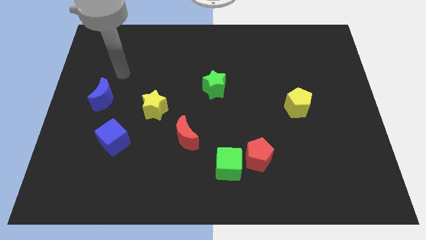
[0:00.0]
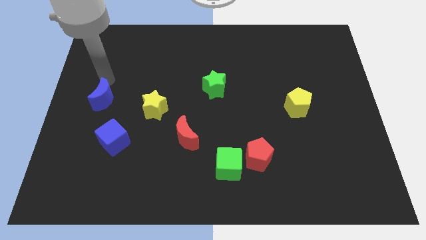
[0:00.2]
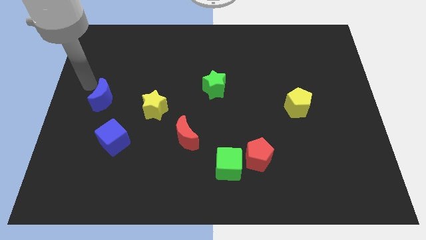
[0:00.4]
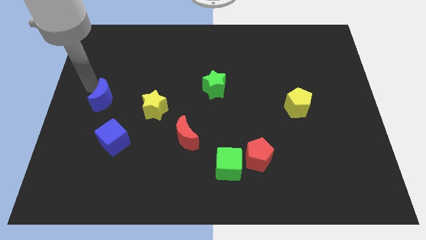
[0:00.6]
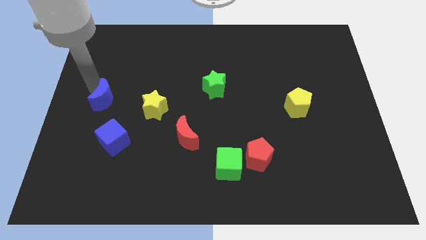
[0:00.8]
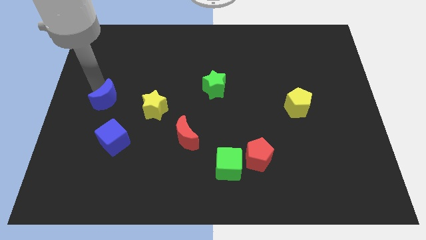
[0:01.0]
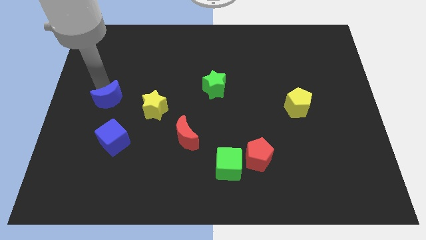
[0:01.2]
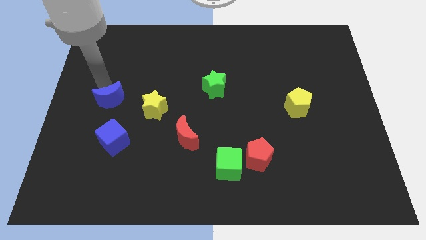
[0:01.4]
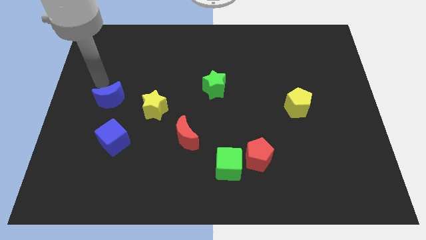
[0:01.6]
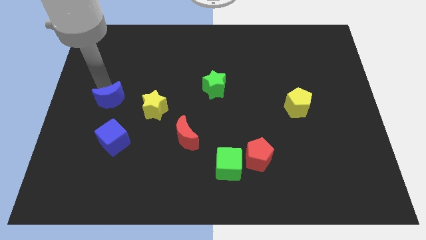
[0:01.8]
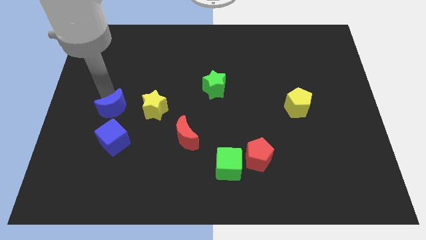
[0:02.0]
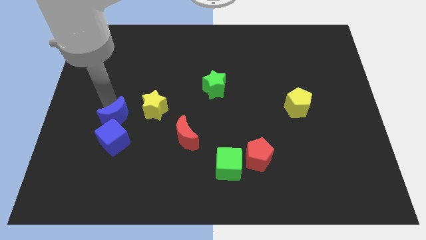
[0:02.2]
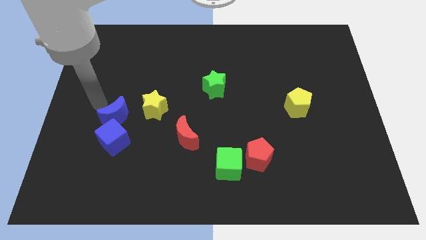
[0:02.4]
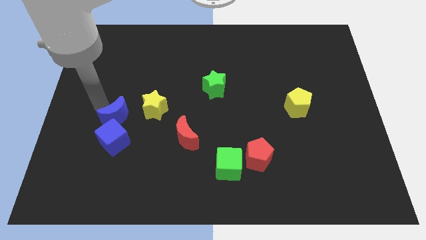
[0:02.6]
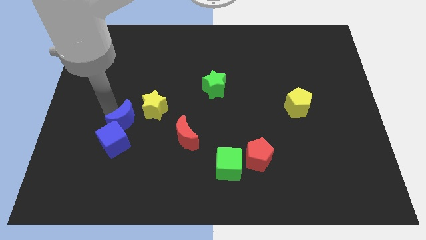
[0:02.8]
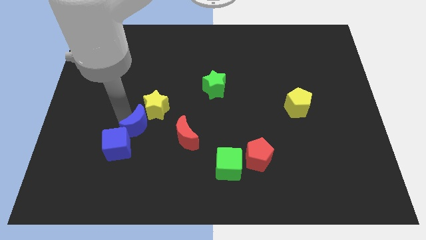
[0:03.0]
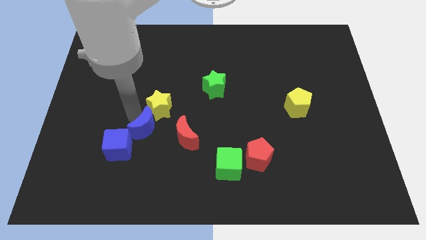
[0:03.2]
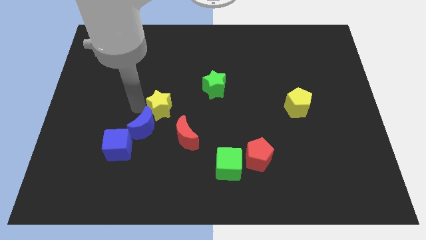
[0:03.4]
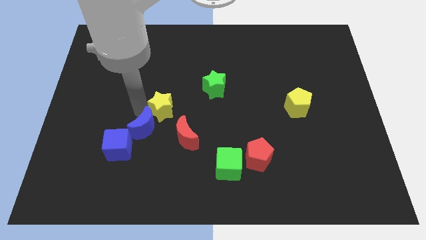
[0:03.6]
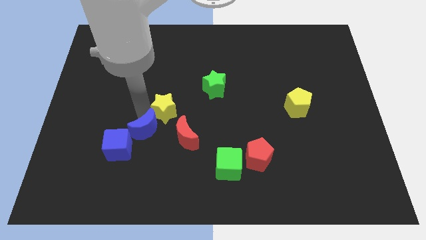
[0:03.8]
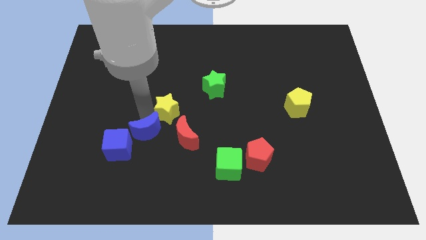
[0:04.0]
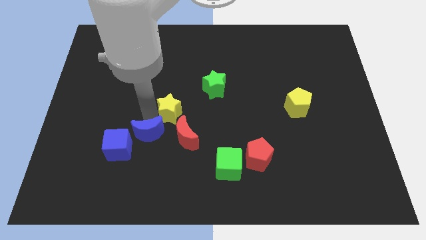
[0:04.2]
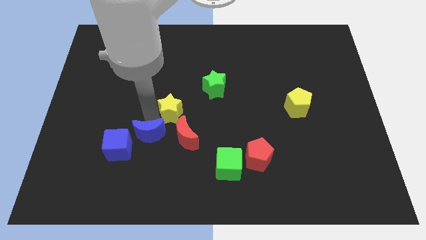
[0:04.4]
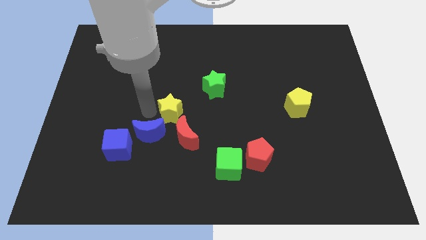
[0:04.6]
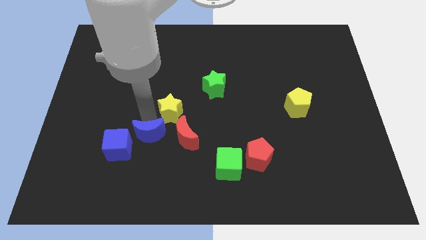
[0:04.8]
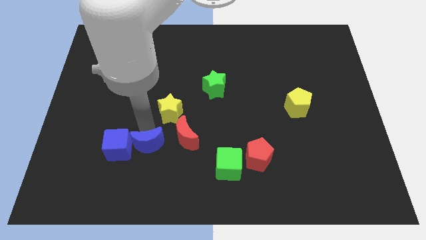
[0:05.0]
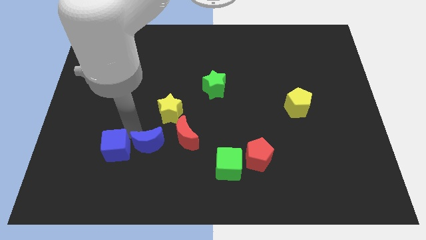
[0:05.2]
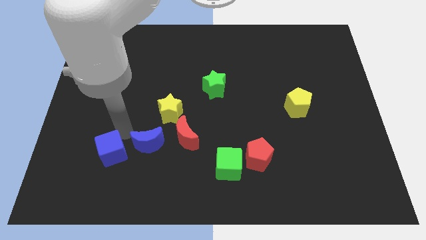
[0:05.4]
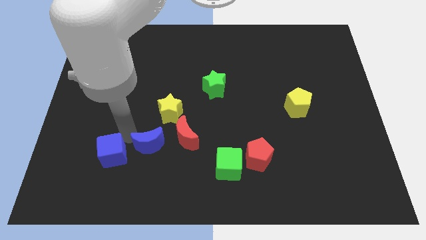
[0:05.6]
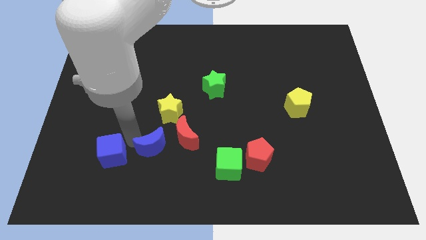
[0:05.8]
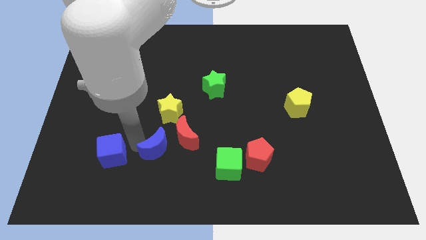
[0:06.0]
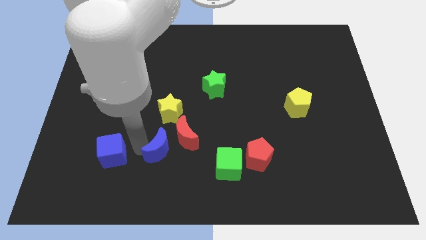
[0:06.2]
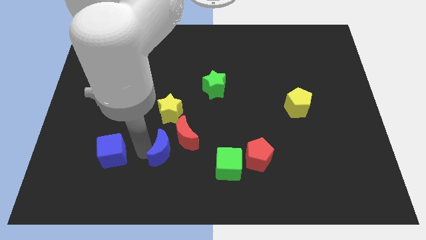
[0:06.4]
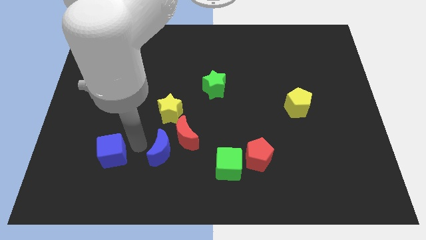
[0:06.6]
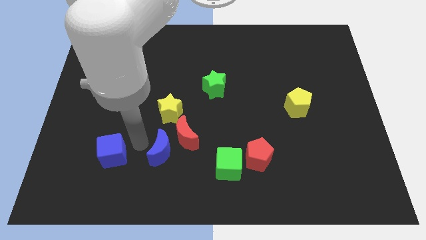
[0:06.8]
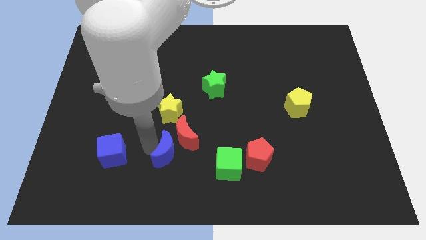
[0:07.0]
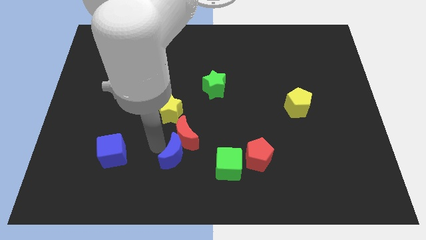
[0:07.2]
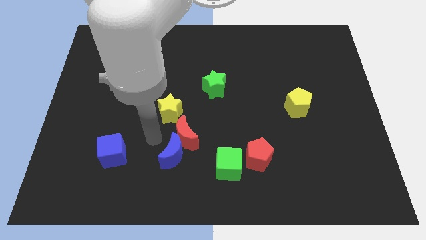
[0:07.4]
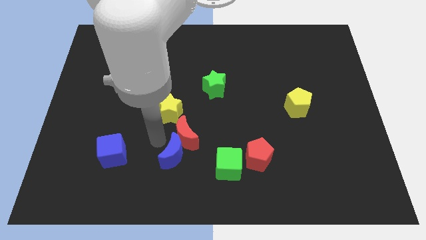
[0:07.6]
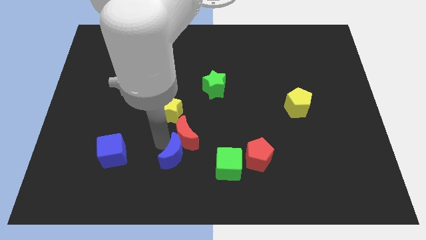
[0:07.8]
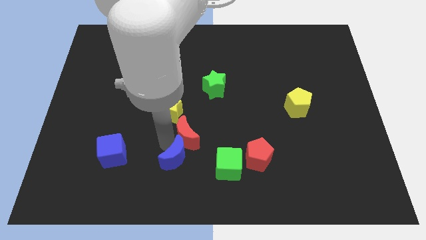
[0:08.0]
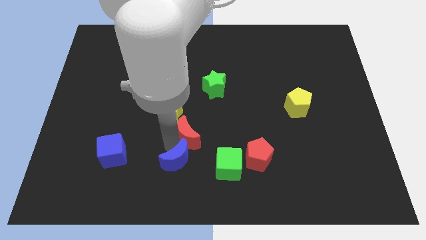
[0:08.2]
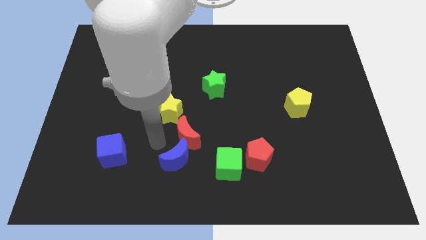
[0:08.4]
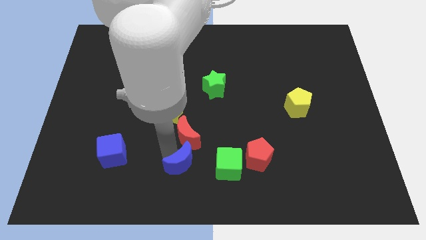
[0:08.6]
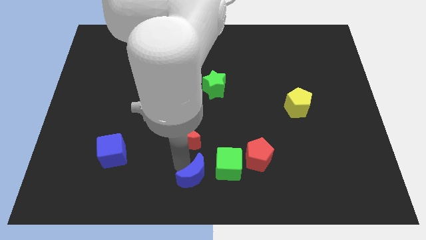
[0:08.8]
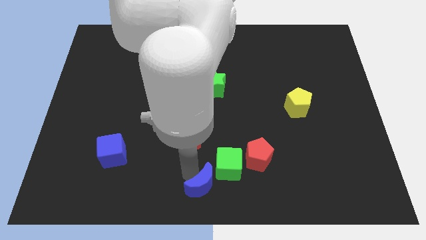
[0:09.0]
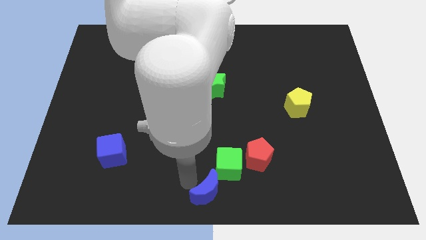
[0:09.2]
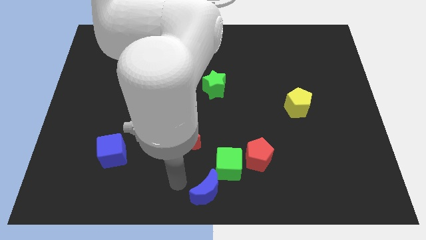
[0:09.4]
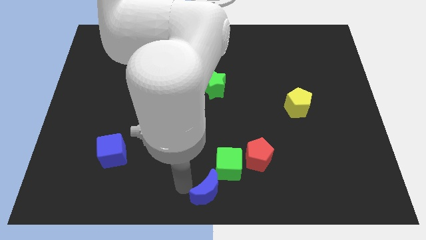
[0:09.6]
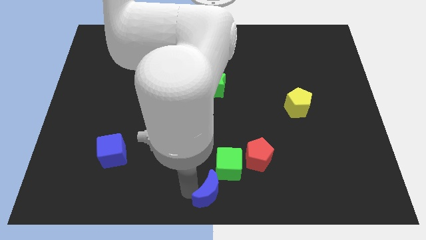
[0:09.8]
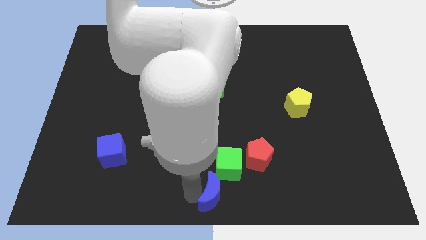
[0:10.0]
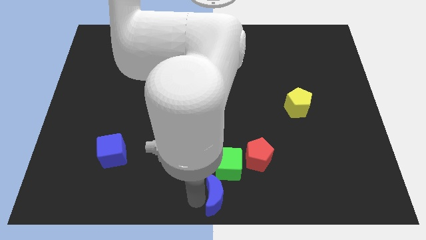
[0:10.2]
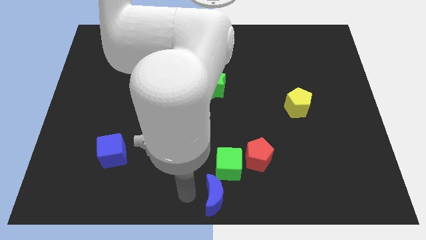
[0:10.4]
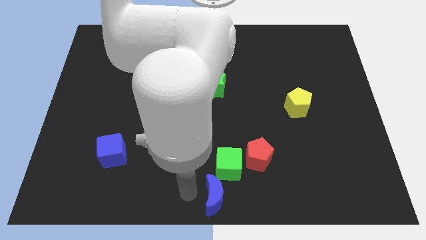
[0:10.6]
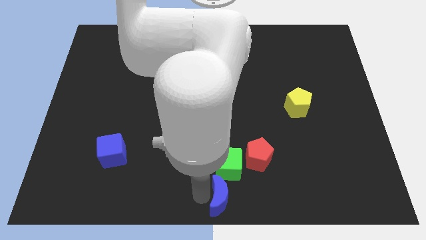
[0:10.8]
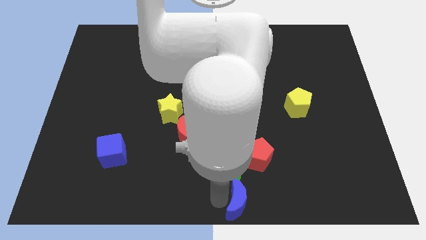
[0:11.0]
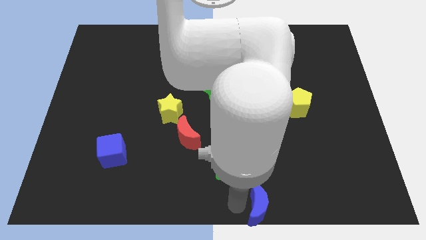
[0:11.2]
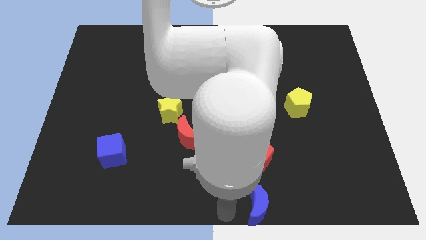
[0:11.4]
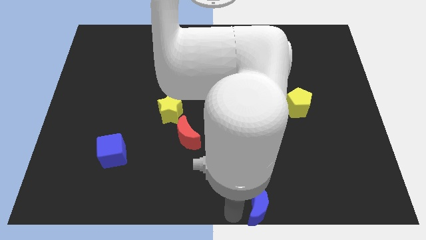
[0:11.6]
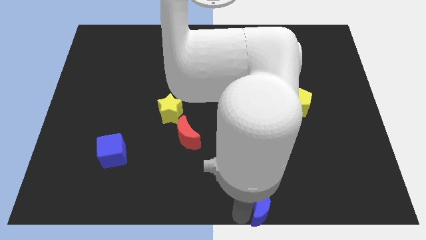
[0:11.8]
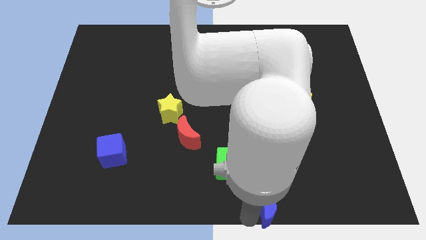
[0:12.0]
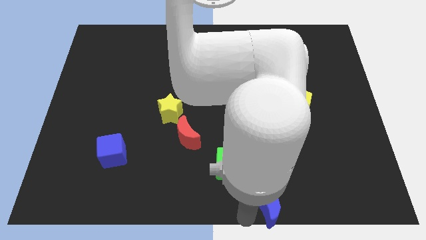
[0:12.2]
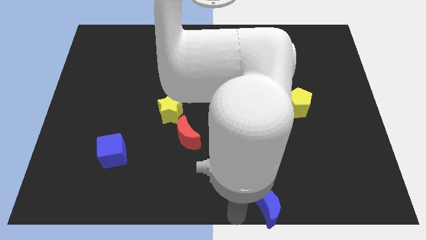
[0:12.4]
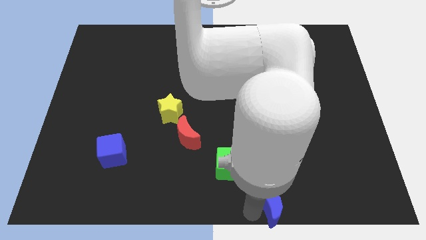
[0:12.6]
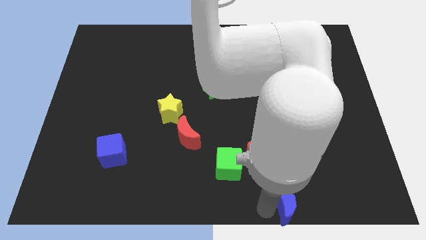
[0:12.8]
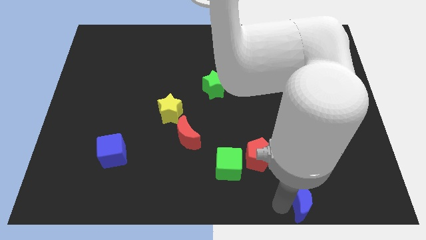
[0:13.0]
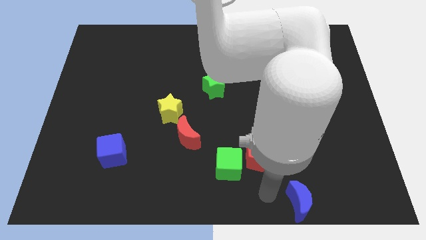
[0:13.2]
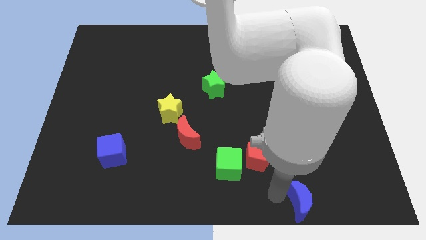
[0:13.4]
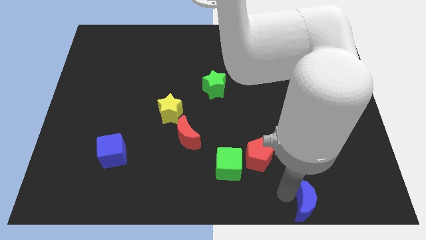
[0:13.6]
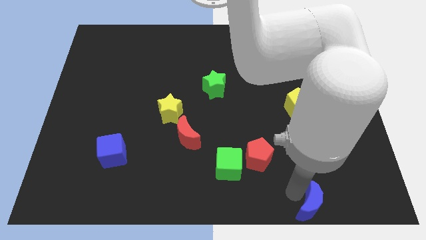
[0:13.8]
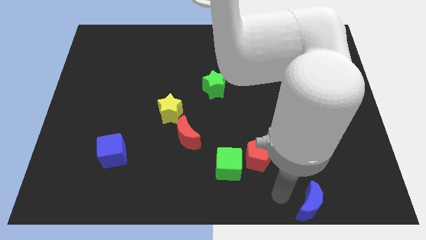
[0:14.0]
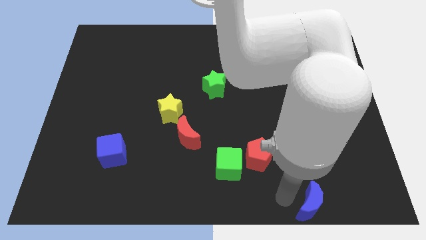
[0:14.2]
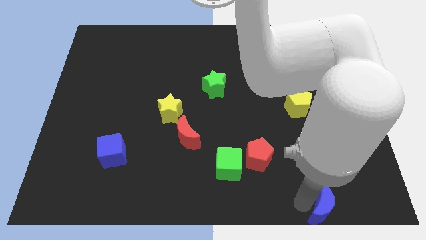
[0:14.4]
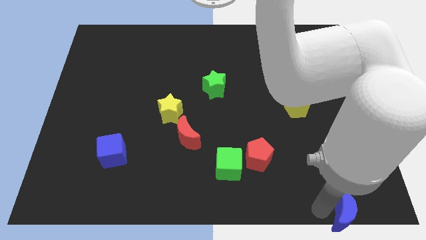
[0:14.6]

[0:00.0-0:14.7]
move the blue moon to the lower right corner
